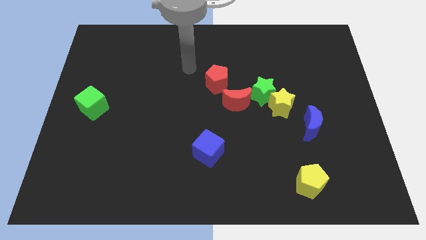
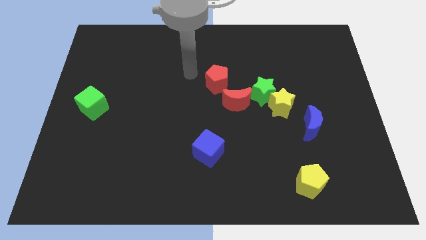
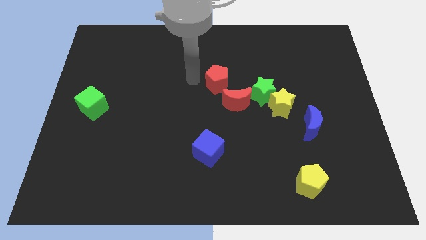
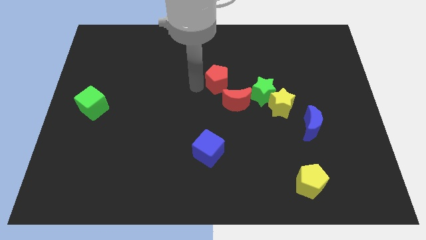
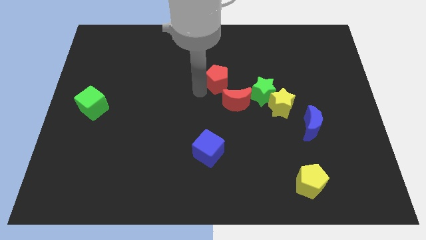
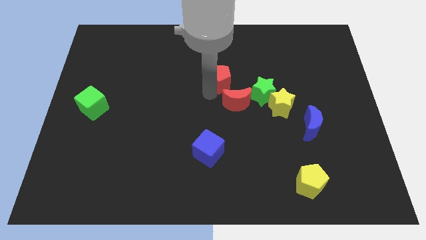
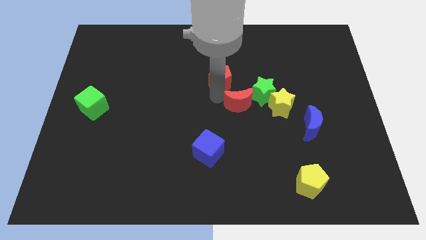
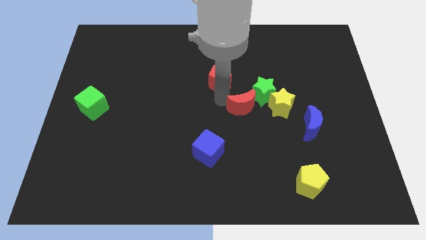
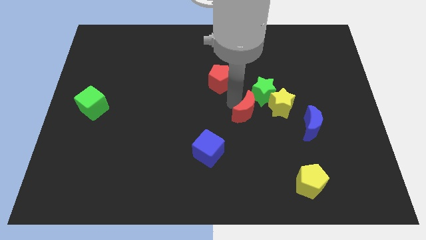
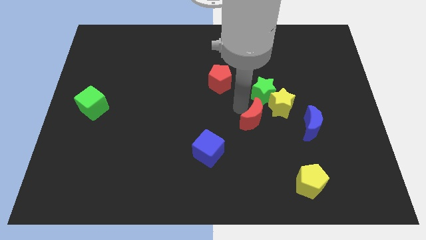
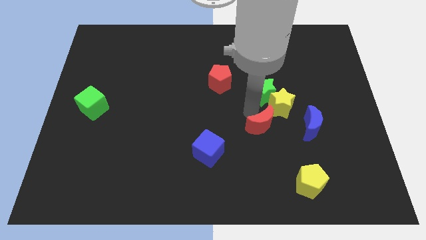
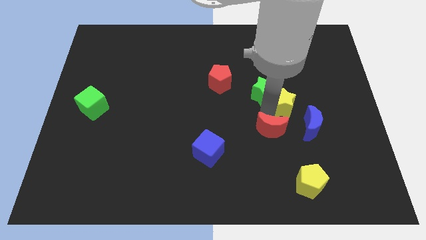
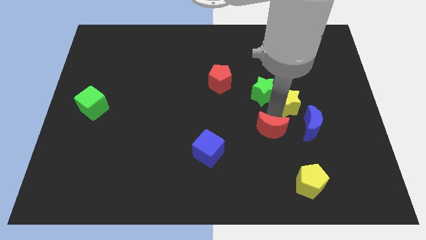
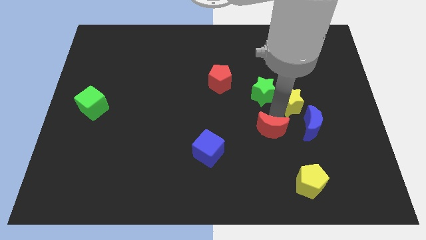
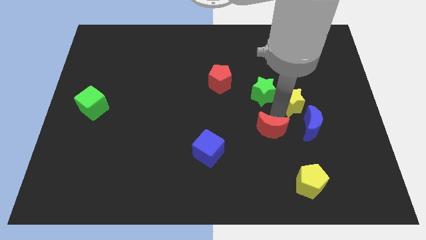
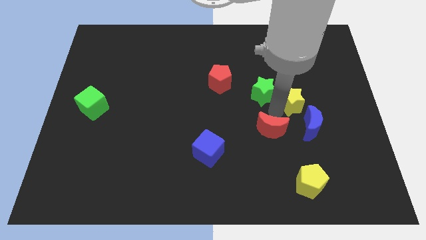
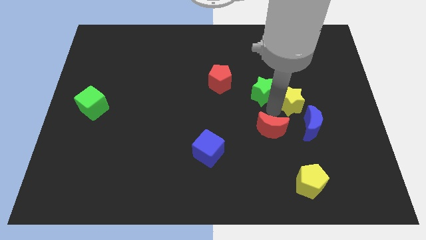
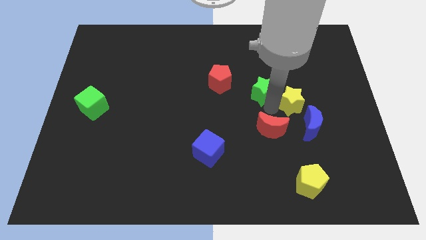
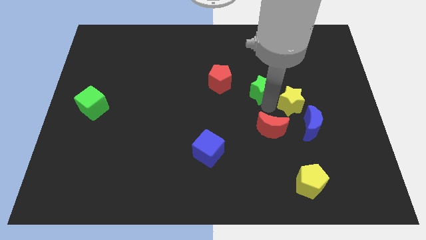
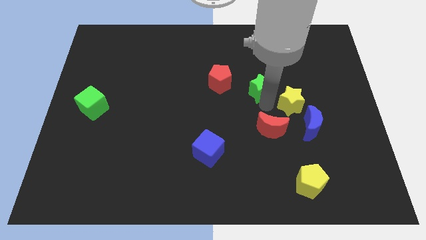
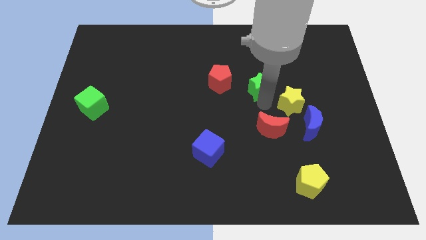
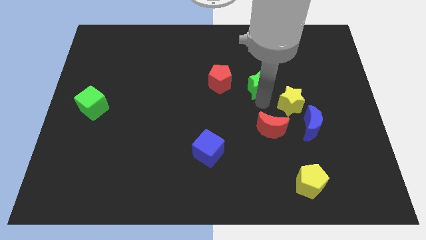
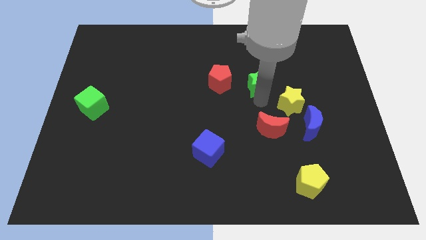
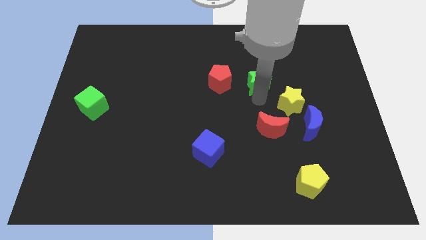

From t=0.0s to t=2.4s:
move the green star away from the yellow star and red moon

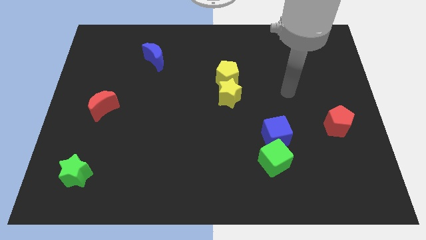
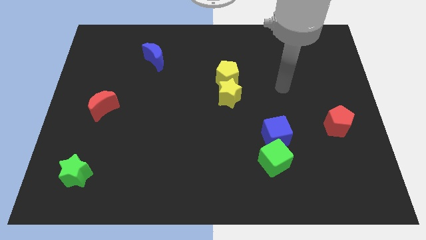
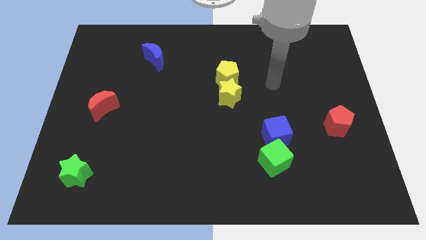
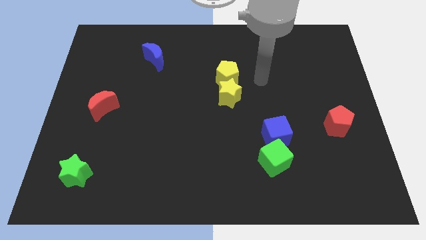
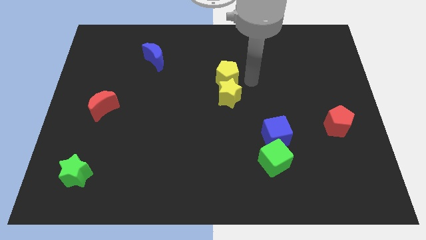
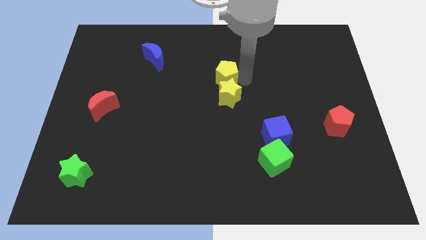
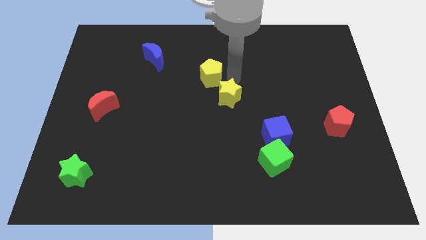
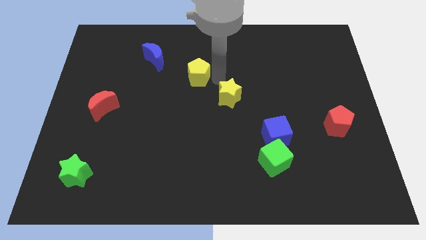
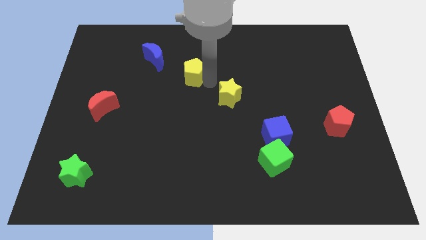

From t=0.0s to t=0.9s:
pull the yellow star apart from the yellow pentagon

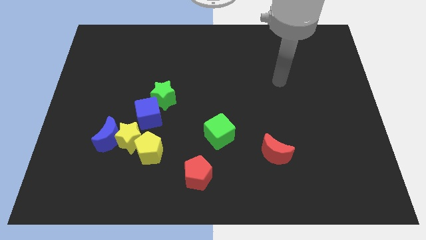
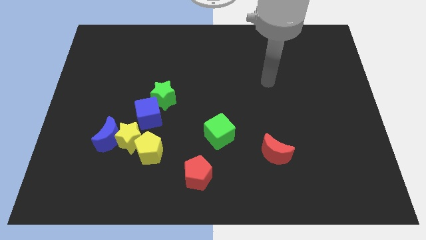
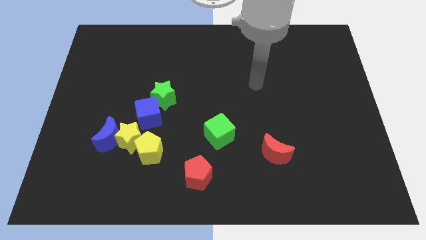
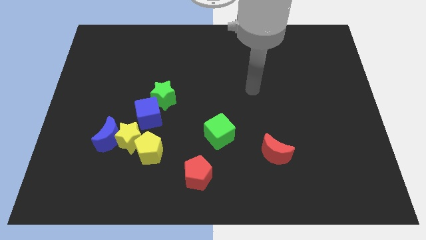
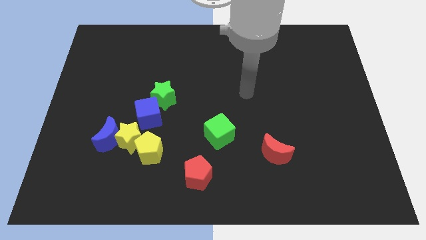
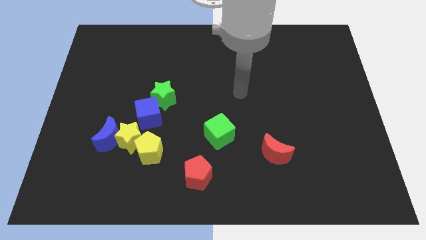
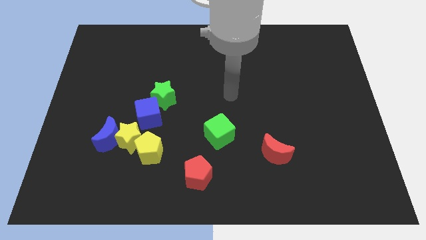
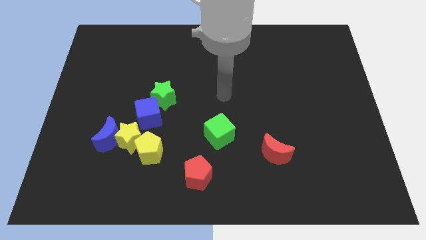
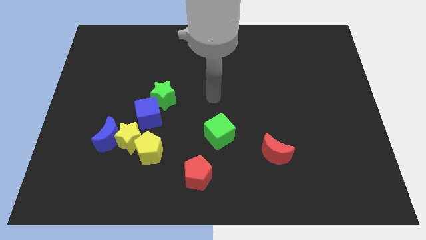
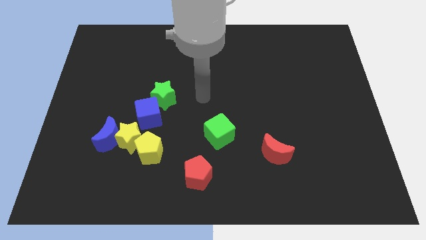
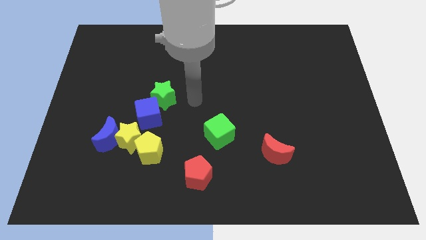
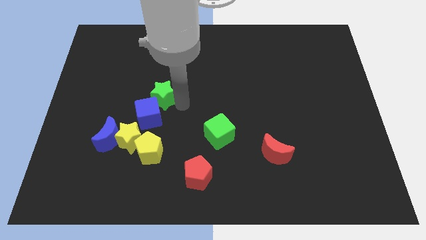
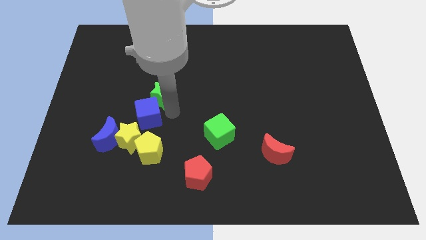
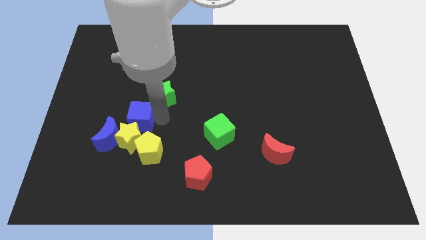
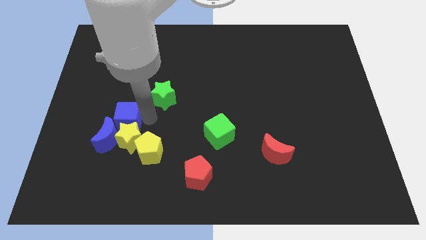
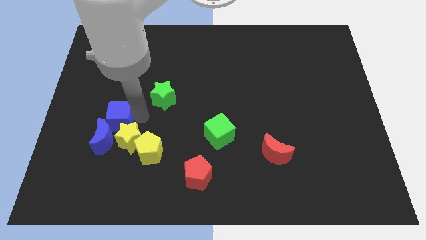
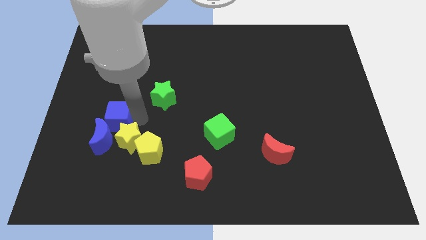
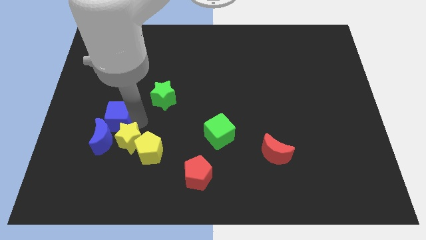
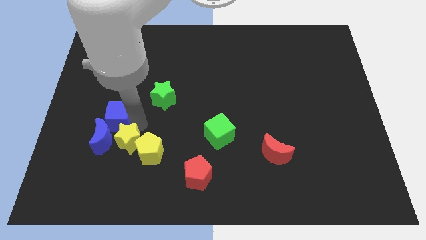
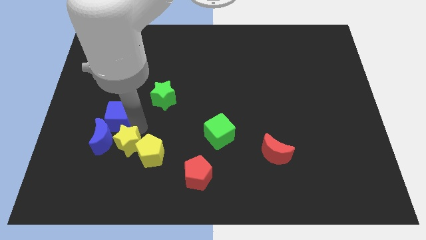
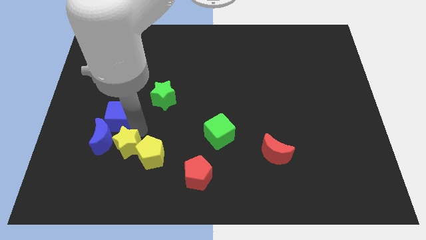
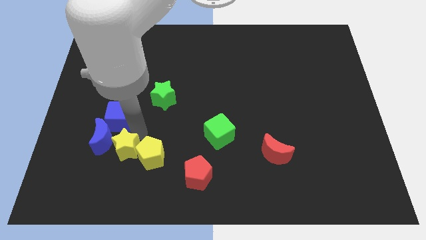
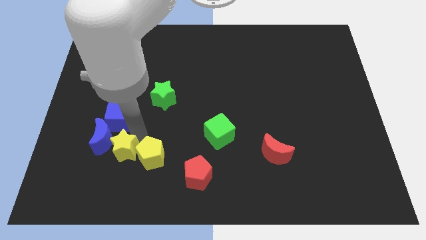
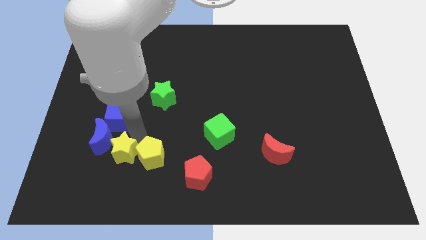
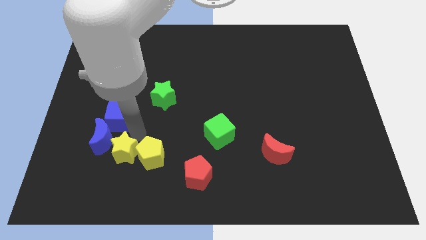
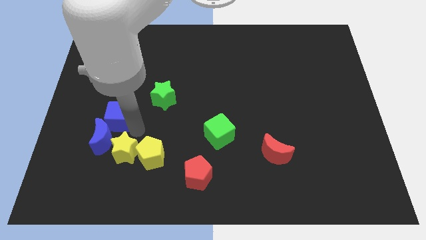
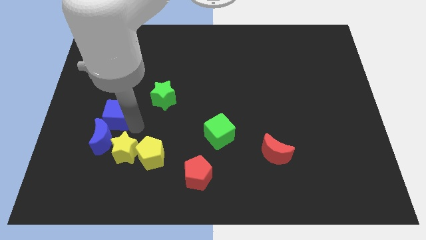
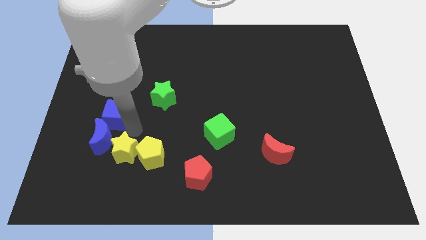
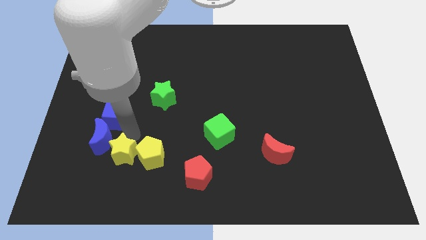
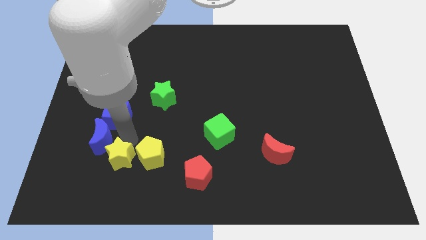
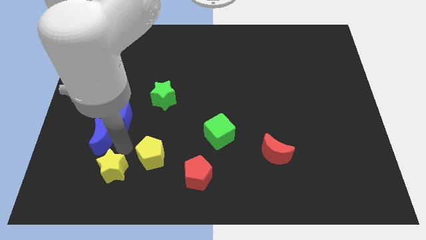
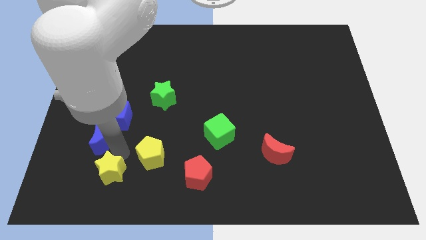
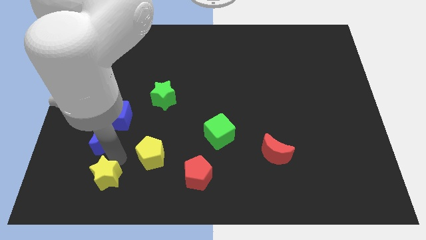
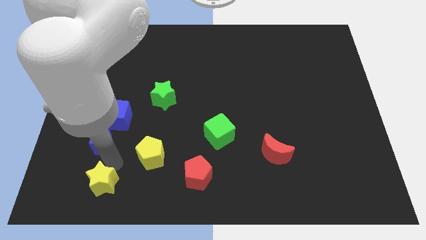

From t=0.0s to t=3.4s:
separate the yellow star from the blue moon, yellow pentagon, and blue cube

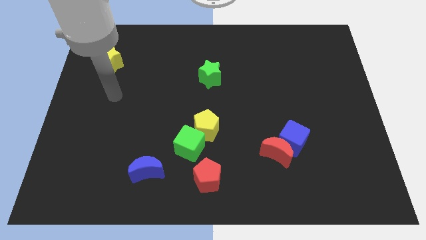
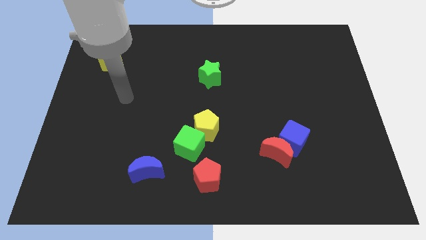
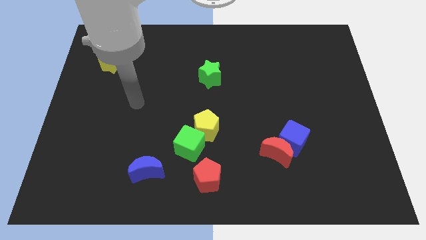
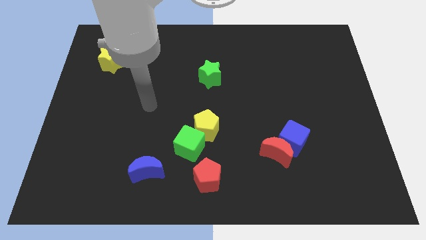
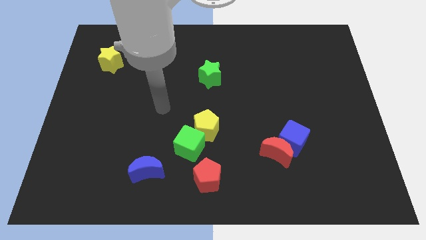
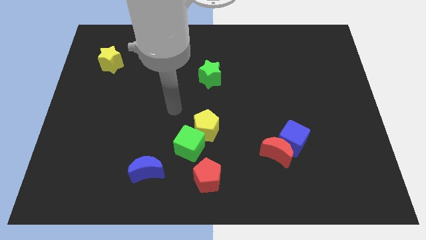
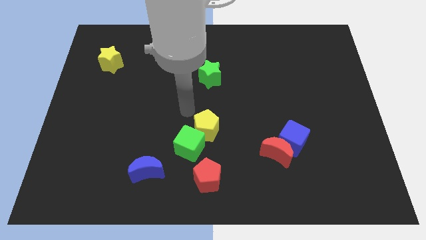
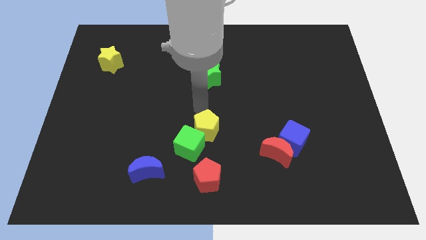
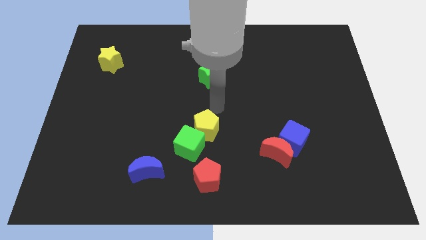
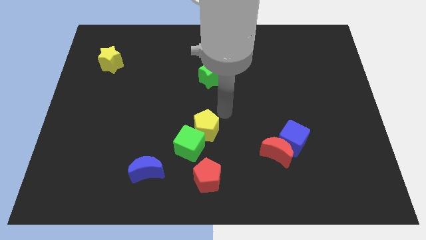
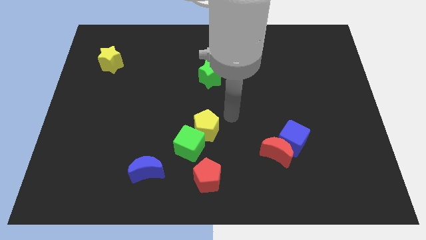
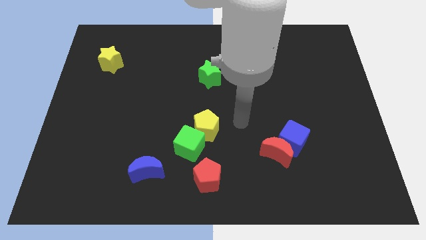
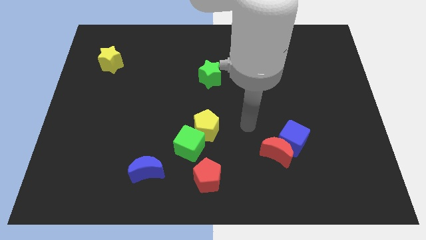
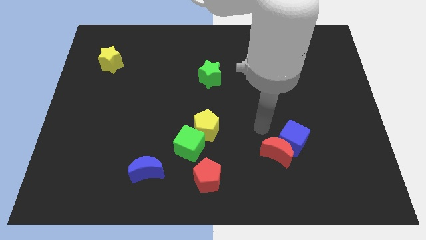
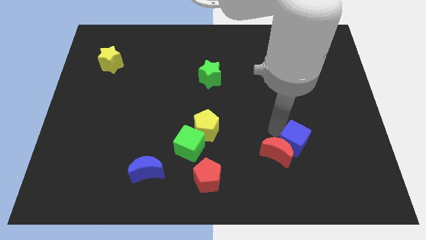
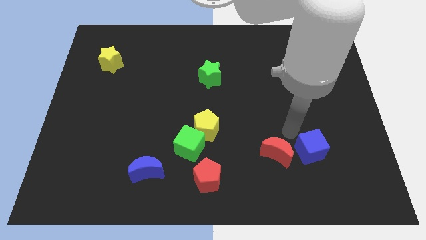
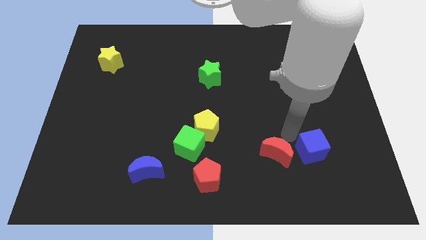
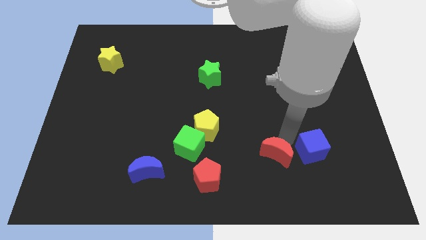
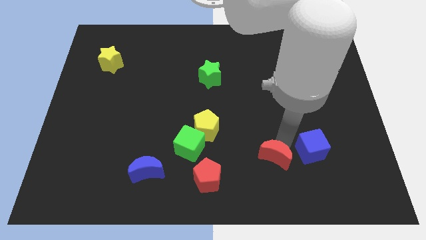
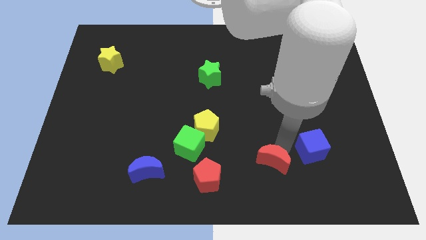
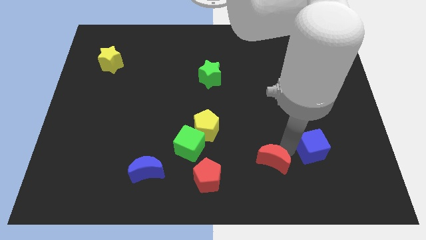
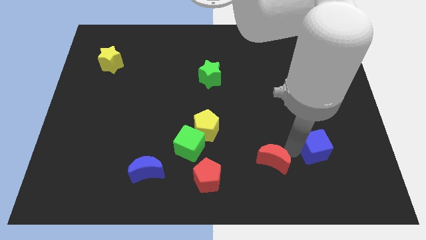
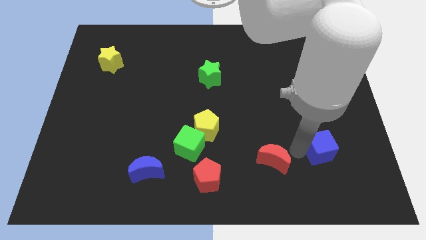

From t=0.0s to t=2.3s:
pull the red moon apart from the blue cube

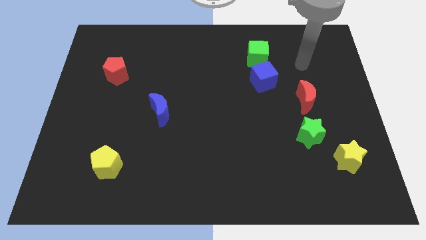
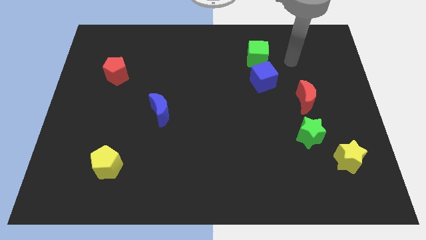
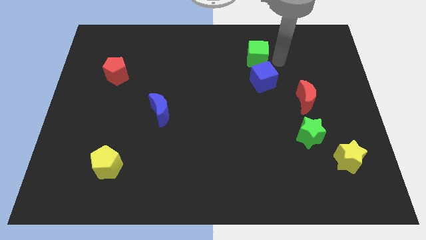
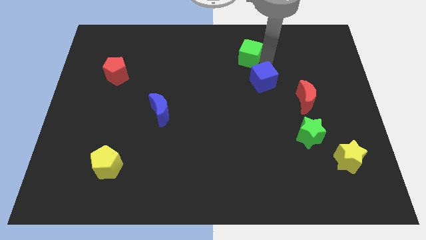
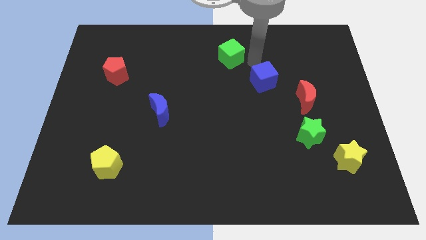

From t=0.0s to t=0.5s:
pull the blue cube apart from the green cube
